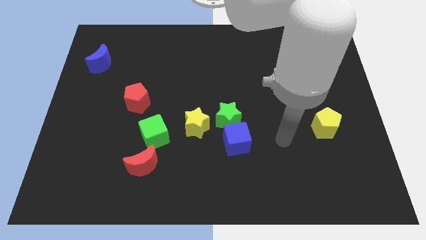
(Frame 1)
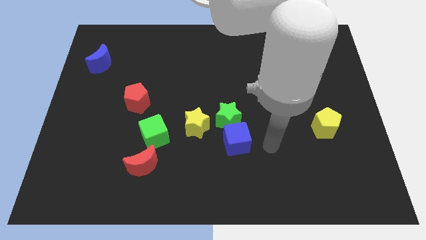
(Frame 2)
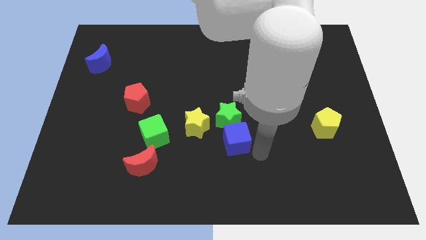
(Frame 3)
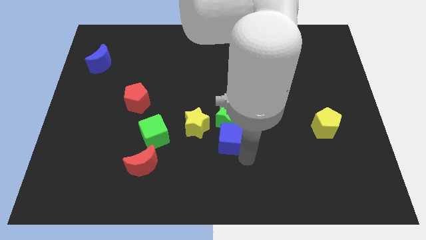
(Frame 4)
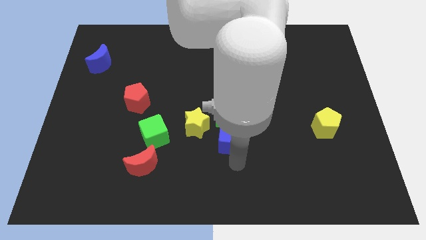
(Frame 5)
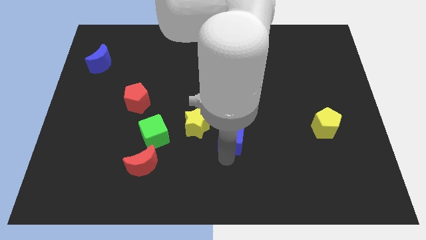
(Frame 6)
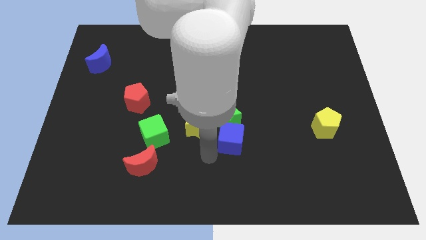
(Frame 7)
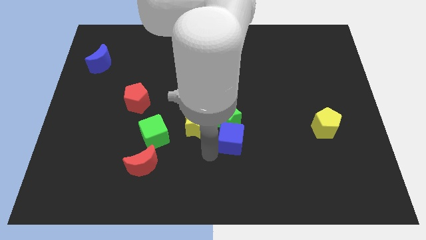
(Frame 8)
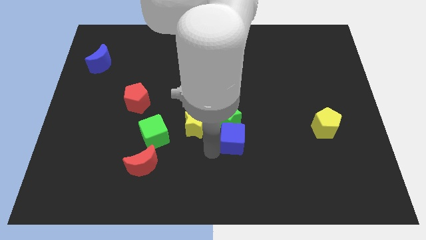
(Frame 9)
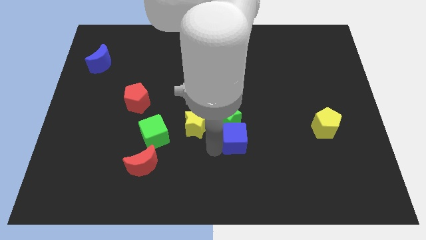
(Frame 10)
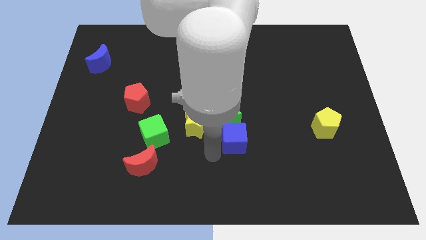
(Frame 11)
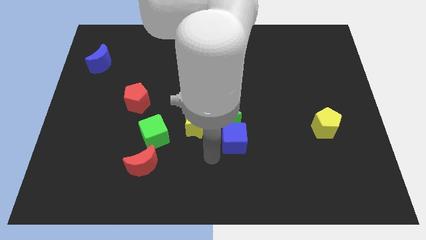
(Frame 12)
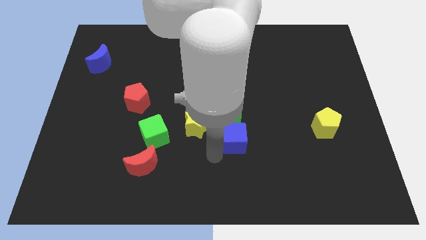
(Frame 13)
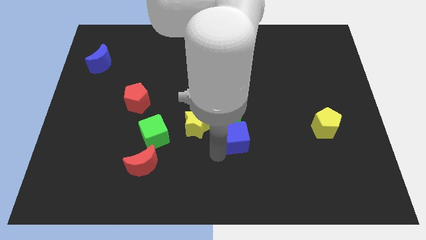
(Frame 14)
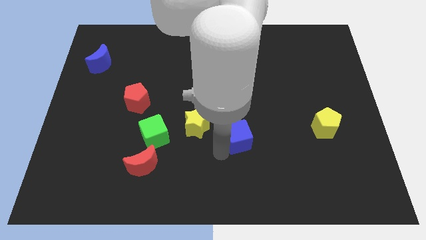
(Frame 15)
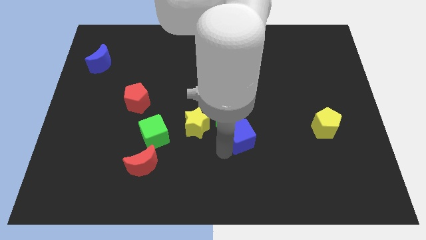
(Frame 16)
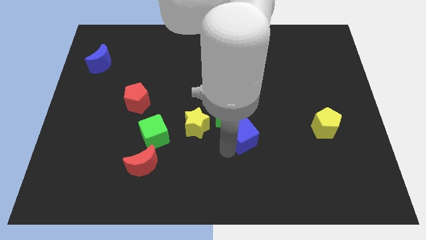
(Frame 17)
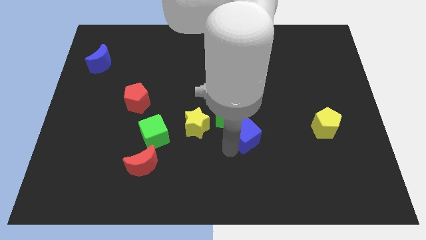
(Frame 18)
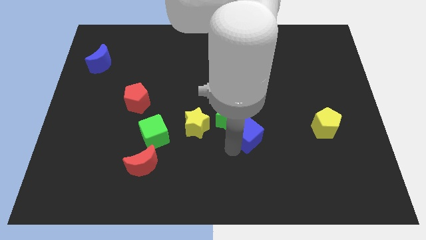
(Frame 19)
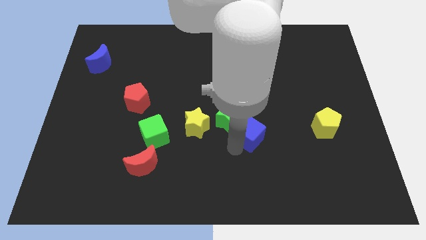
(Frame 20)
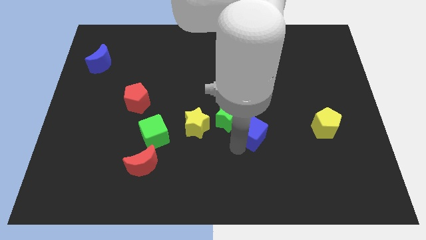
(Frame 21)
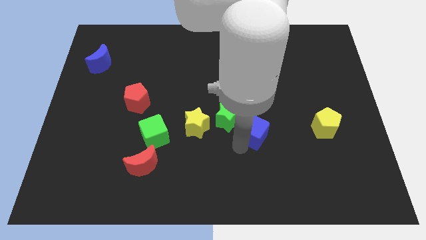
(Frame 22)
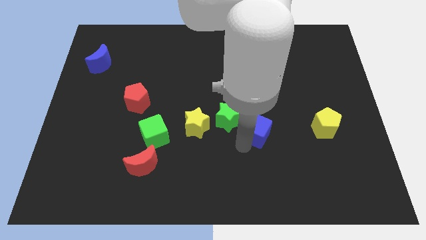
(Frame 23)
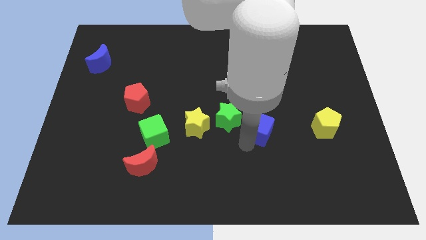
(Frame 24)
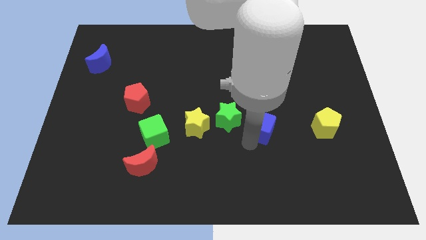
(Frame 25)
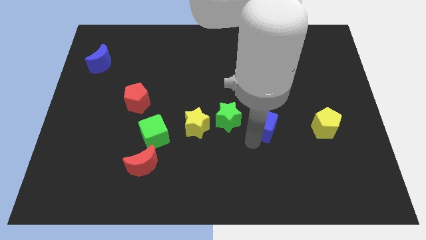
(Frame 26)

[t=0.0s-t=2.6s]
slide the blue cube slightly up and then right

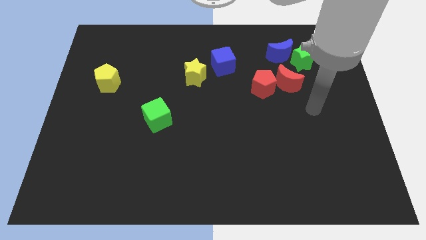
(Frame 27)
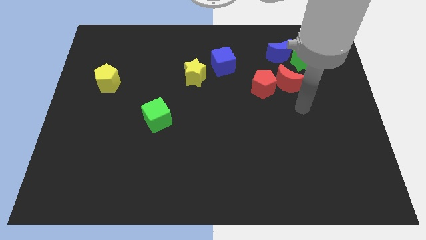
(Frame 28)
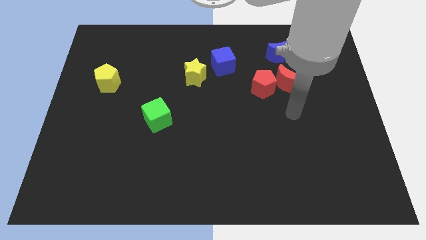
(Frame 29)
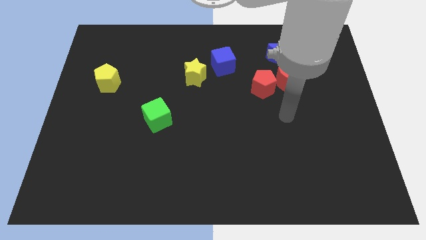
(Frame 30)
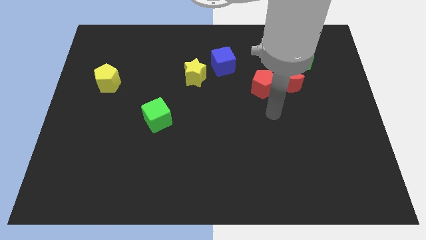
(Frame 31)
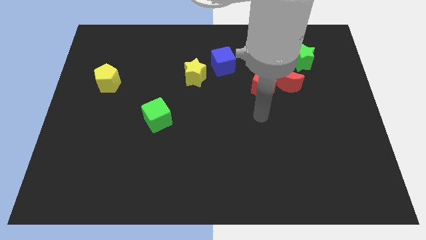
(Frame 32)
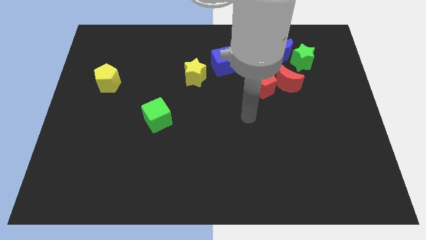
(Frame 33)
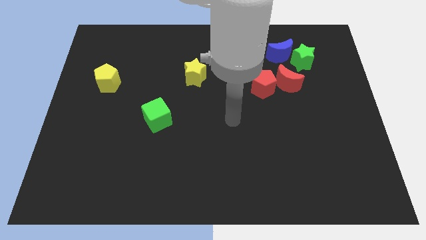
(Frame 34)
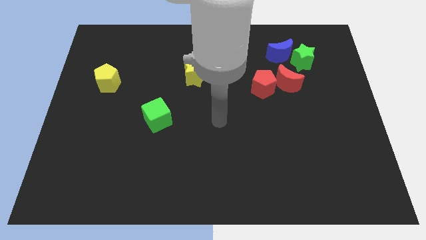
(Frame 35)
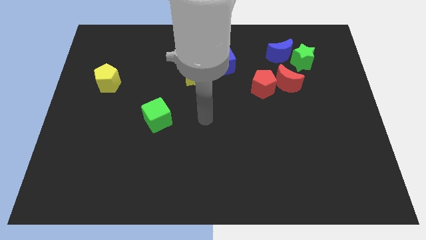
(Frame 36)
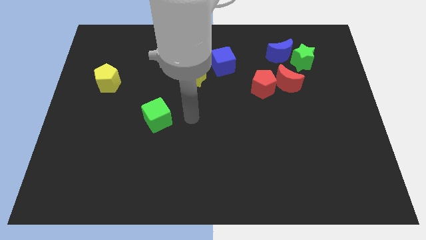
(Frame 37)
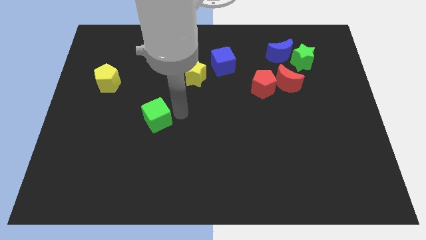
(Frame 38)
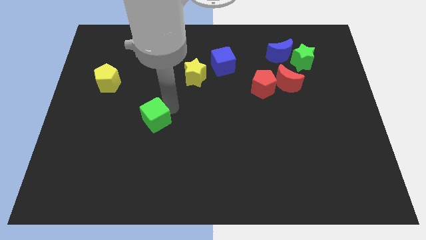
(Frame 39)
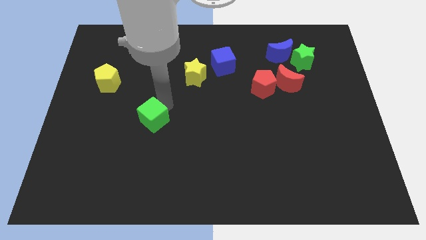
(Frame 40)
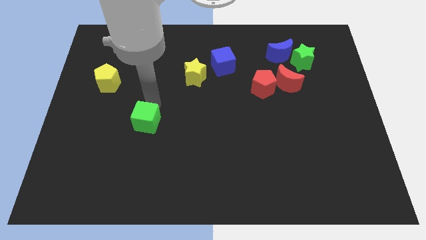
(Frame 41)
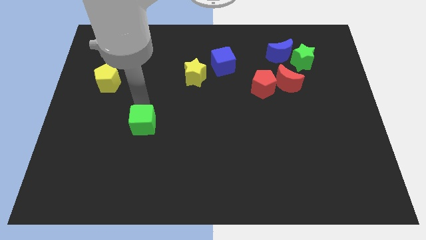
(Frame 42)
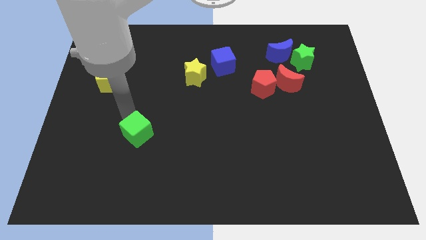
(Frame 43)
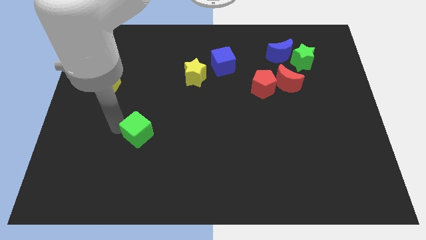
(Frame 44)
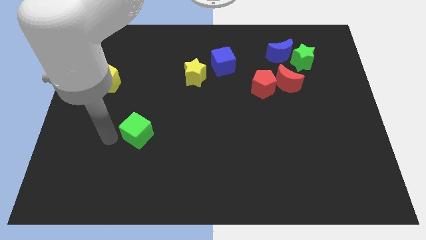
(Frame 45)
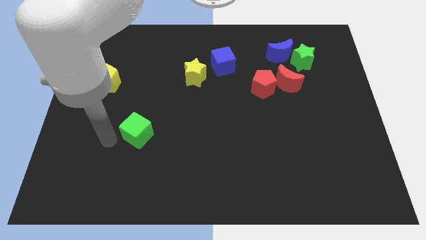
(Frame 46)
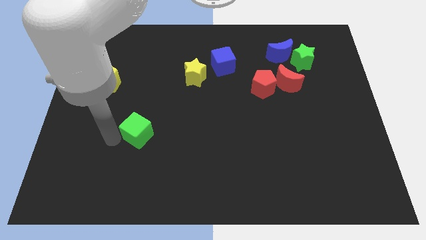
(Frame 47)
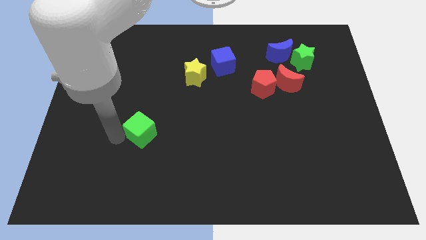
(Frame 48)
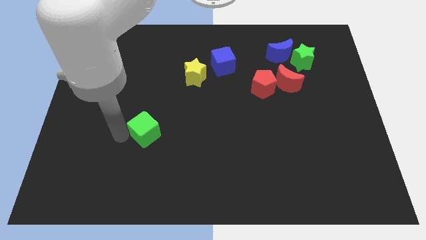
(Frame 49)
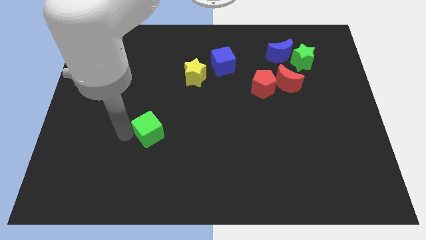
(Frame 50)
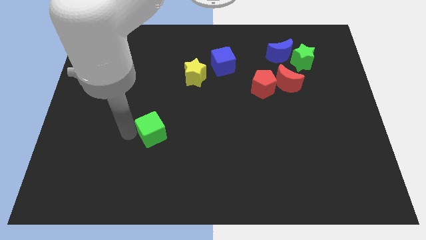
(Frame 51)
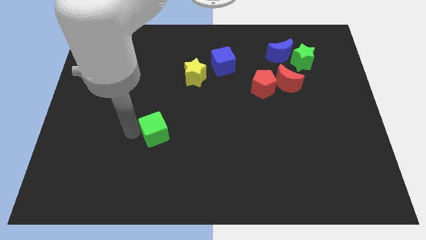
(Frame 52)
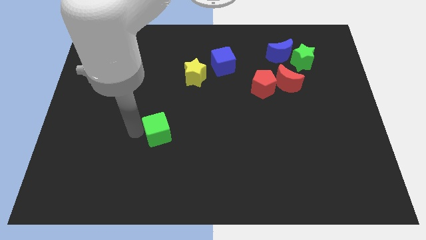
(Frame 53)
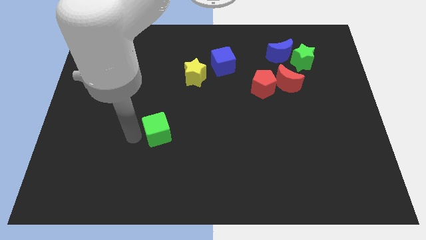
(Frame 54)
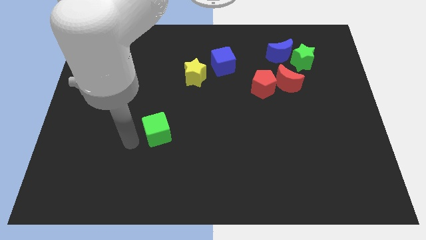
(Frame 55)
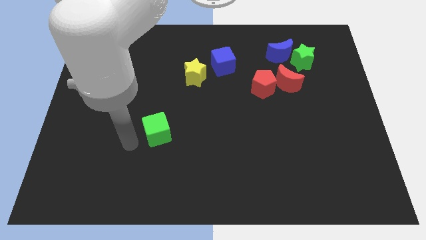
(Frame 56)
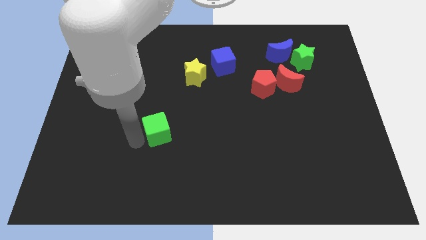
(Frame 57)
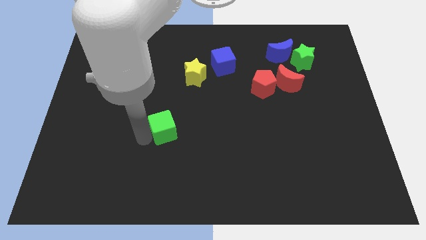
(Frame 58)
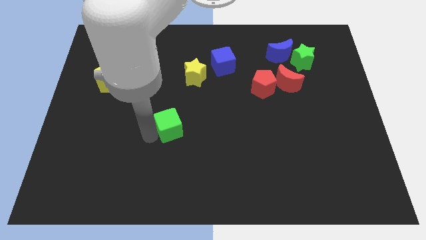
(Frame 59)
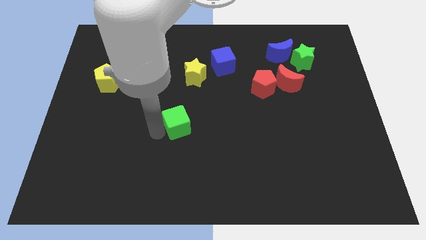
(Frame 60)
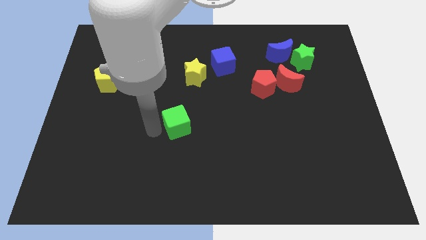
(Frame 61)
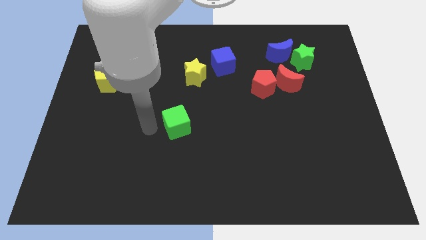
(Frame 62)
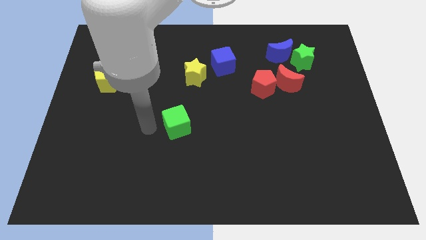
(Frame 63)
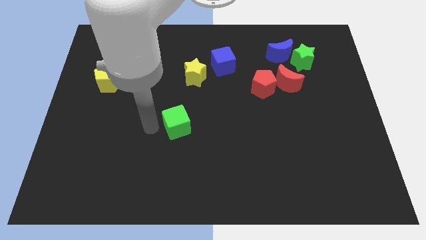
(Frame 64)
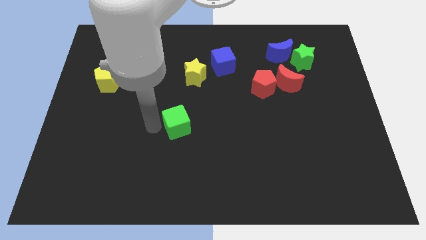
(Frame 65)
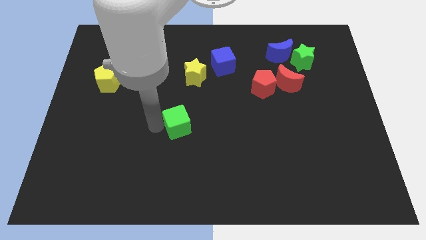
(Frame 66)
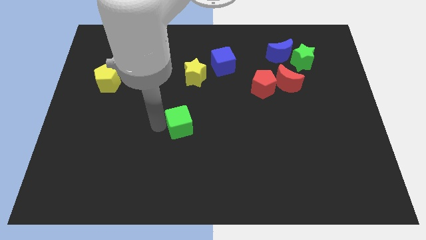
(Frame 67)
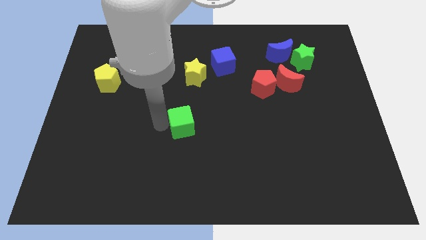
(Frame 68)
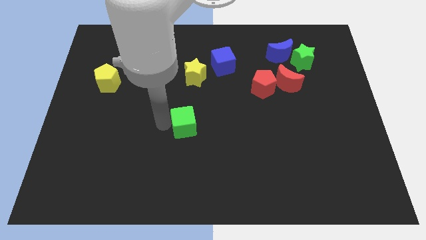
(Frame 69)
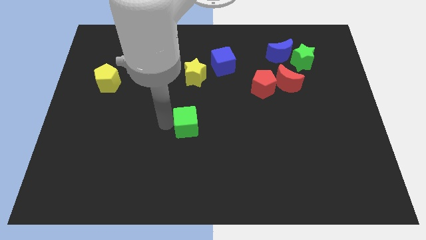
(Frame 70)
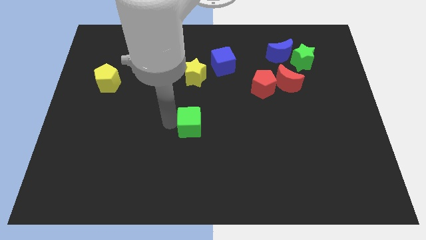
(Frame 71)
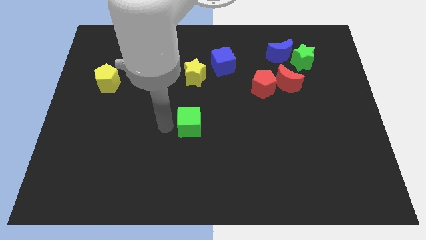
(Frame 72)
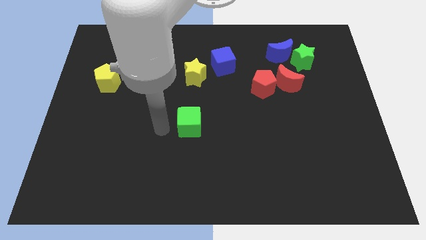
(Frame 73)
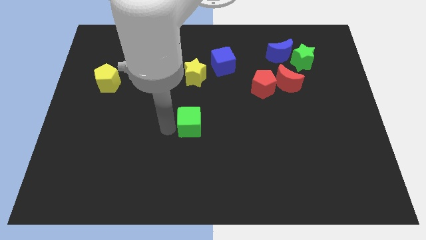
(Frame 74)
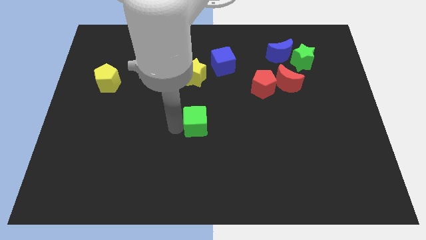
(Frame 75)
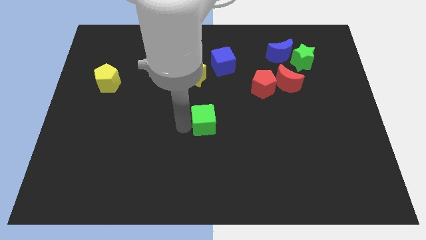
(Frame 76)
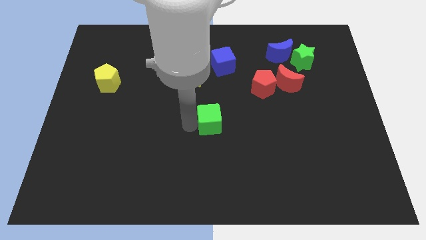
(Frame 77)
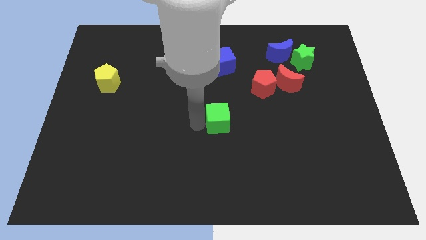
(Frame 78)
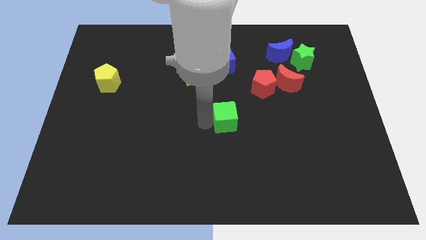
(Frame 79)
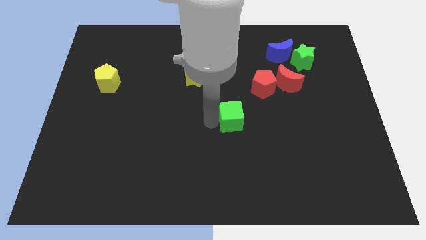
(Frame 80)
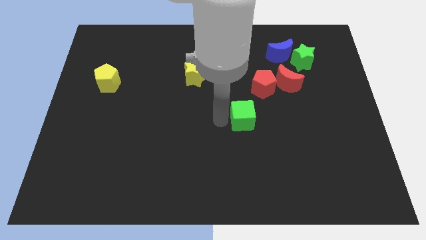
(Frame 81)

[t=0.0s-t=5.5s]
push the green cube to the right
